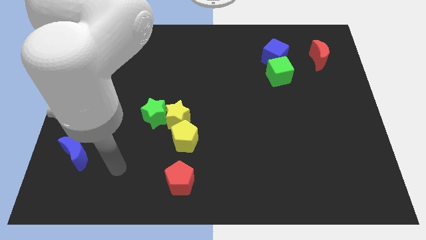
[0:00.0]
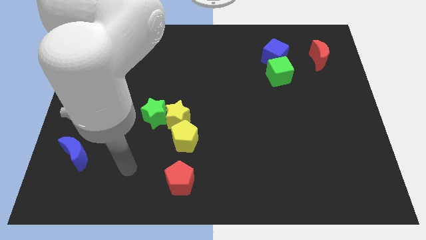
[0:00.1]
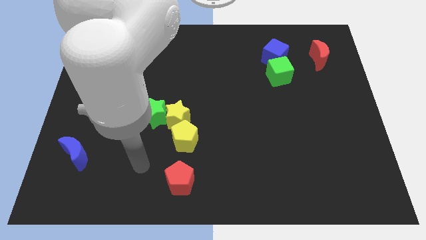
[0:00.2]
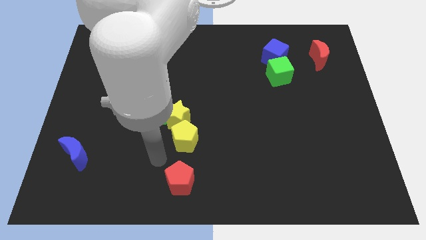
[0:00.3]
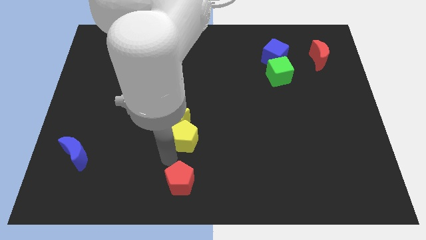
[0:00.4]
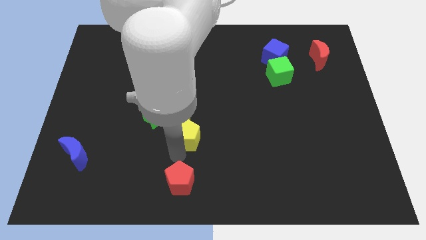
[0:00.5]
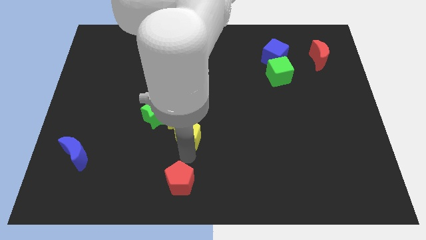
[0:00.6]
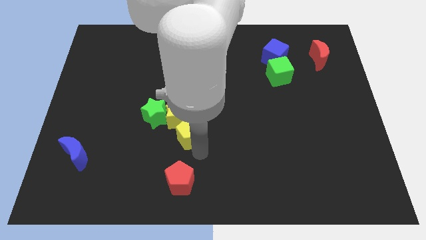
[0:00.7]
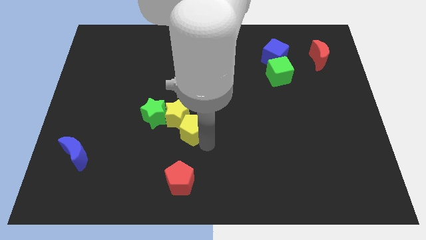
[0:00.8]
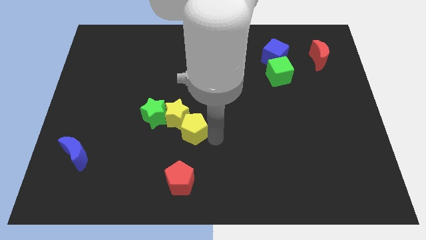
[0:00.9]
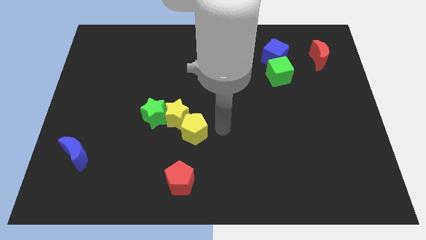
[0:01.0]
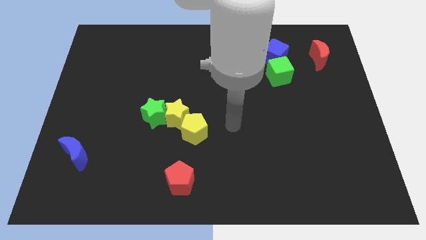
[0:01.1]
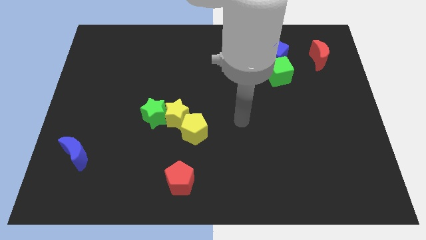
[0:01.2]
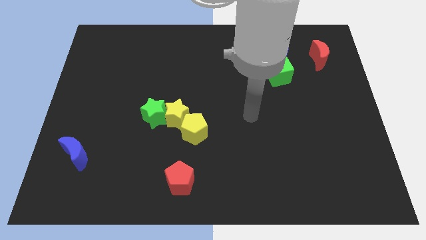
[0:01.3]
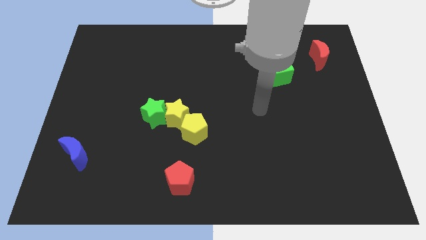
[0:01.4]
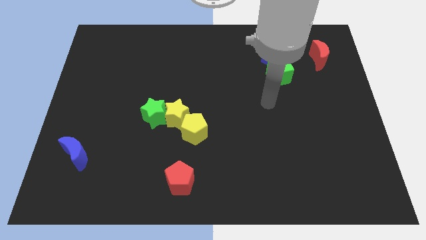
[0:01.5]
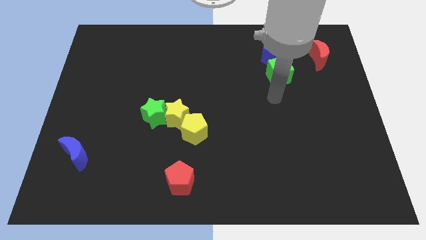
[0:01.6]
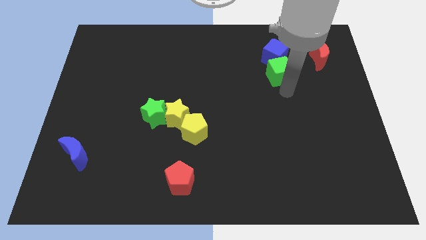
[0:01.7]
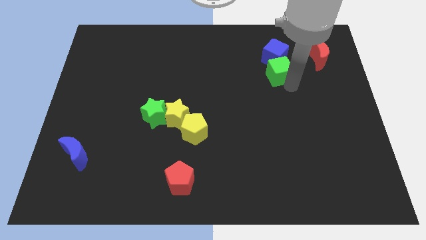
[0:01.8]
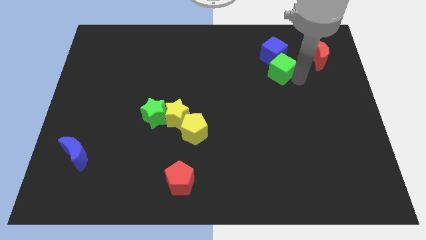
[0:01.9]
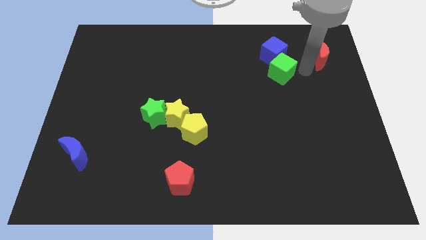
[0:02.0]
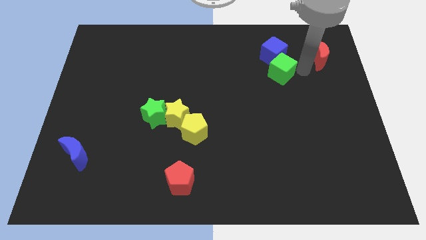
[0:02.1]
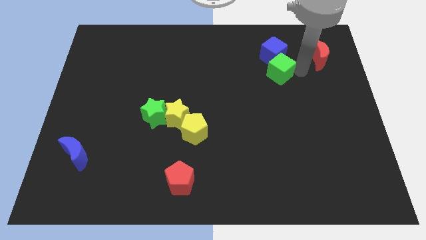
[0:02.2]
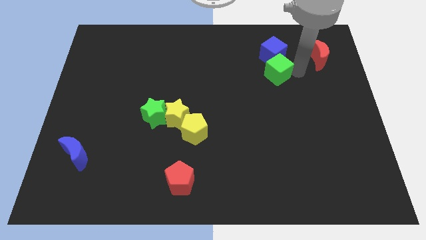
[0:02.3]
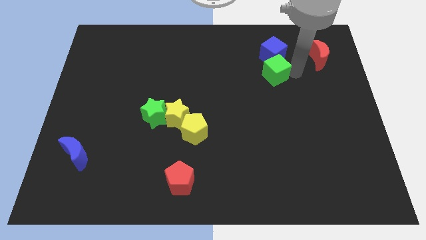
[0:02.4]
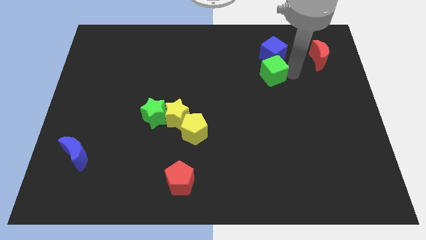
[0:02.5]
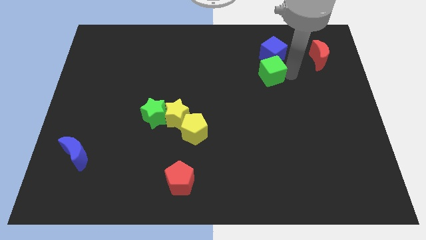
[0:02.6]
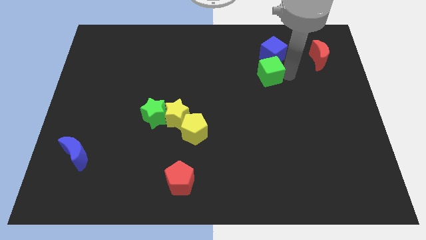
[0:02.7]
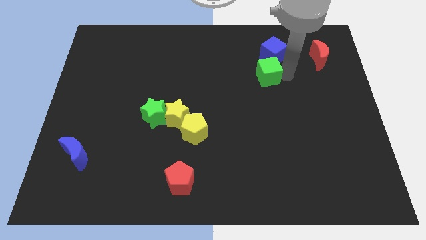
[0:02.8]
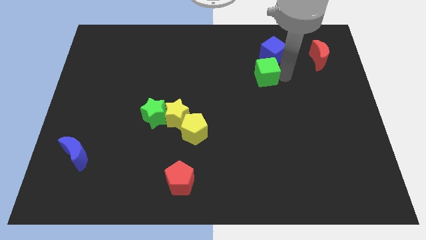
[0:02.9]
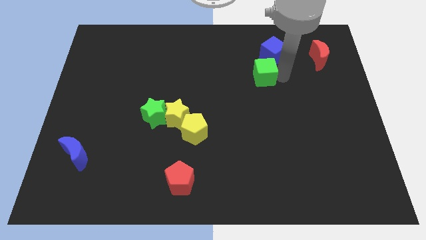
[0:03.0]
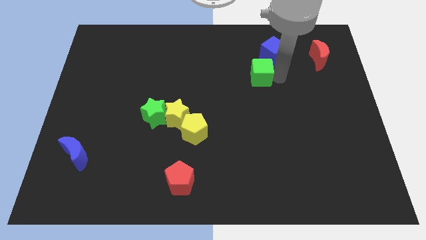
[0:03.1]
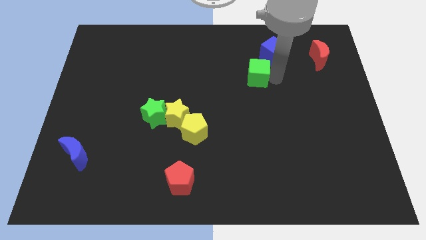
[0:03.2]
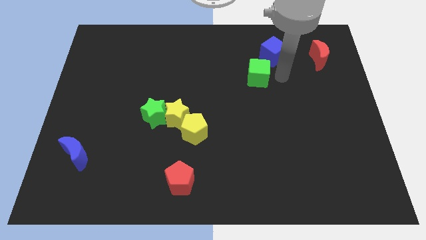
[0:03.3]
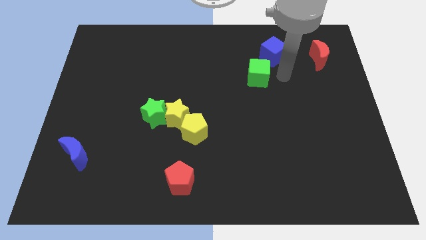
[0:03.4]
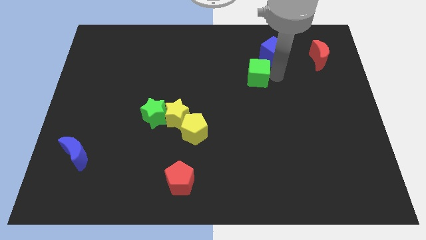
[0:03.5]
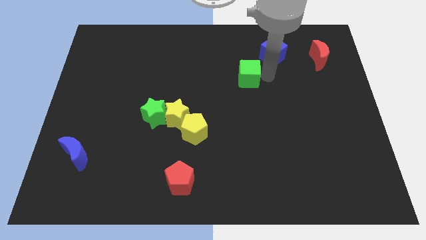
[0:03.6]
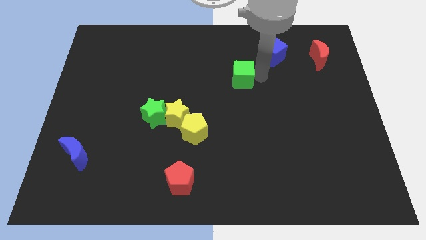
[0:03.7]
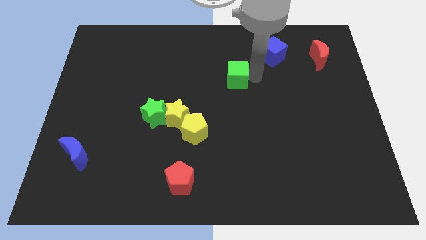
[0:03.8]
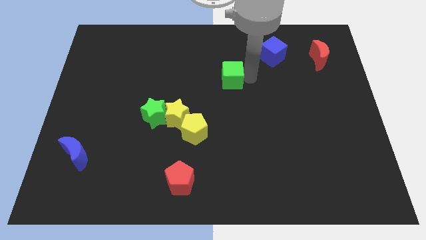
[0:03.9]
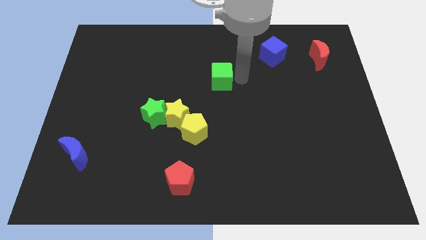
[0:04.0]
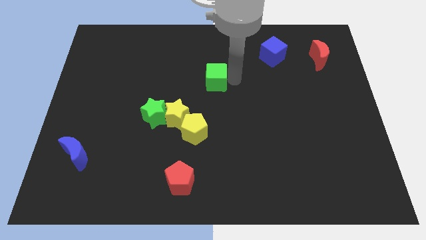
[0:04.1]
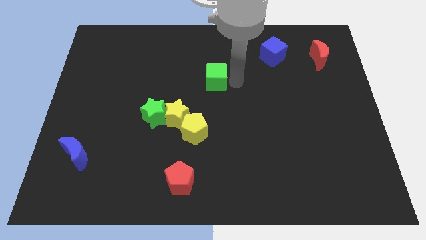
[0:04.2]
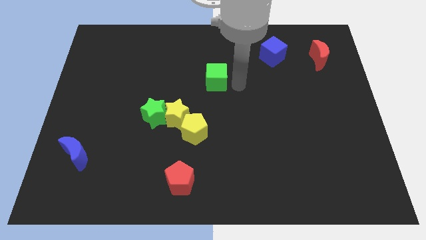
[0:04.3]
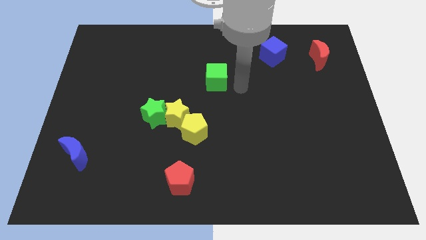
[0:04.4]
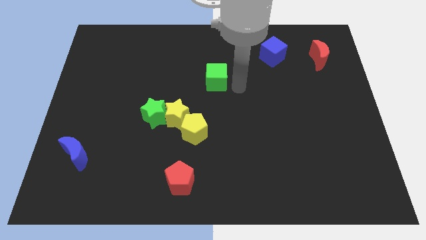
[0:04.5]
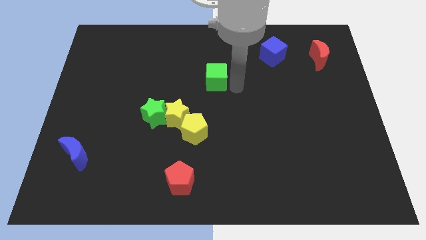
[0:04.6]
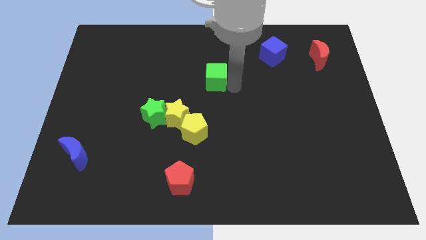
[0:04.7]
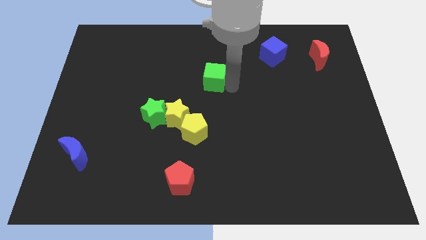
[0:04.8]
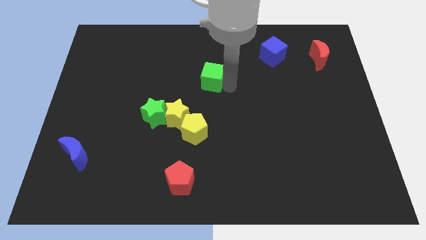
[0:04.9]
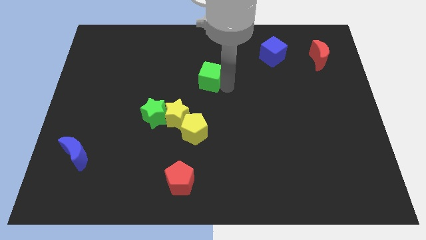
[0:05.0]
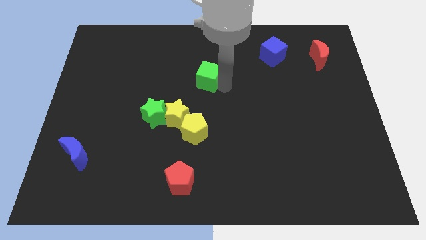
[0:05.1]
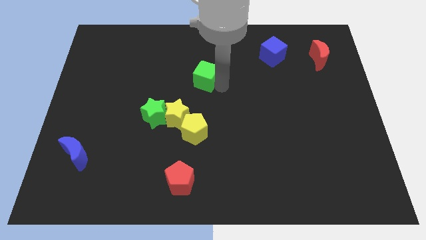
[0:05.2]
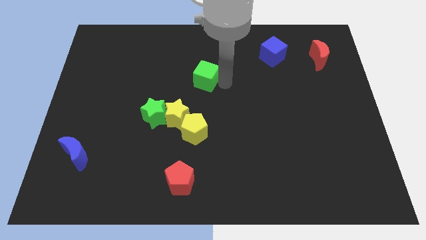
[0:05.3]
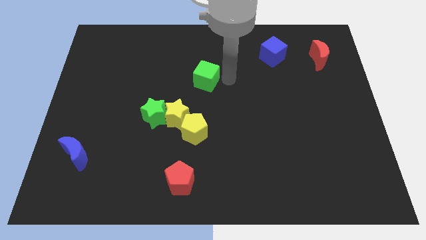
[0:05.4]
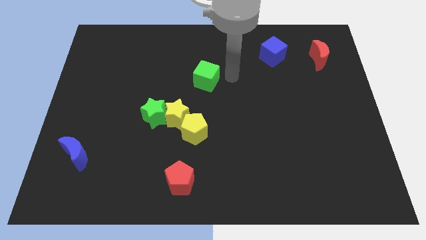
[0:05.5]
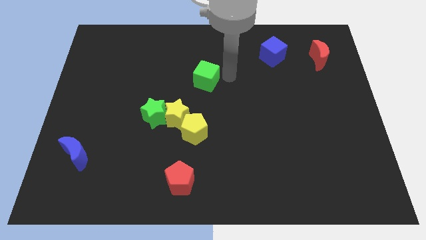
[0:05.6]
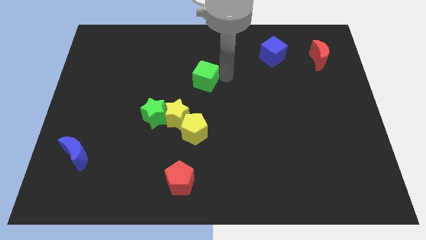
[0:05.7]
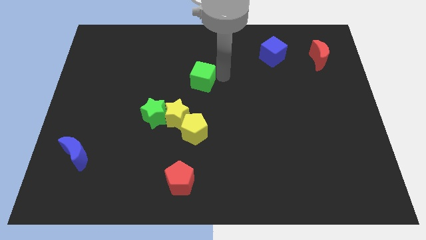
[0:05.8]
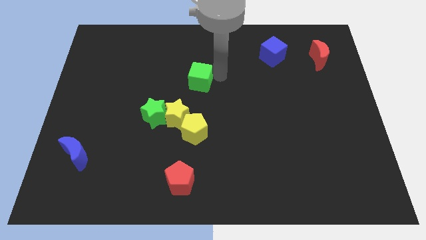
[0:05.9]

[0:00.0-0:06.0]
move the green cube to the left

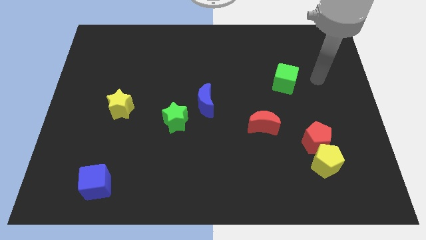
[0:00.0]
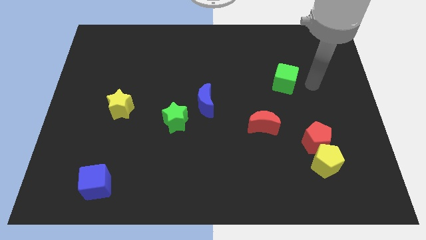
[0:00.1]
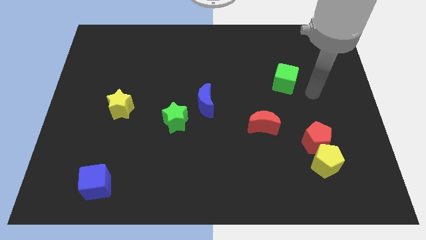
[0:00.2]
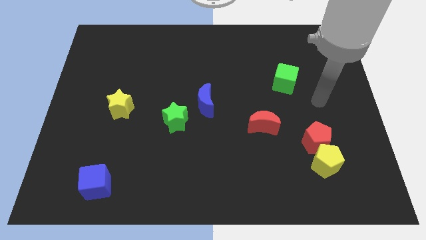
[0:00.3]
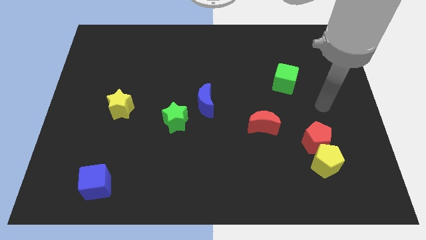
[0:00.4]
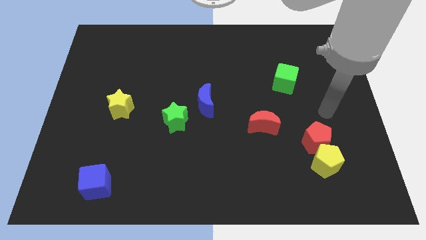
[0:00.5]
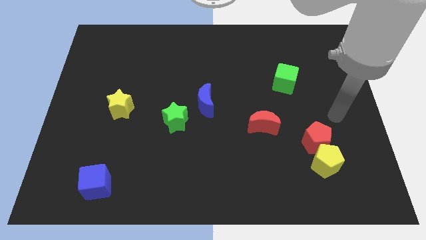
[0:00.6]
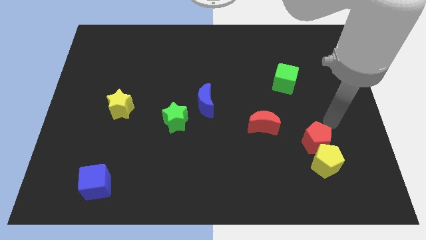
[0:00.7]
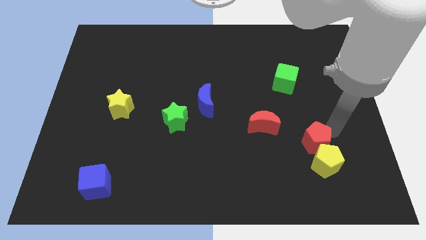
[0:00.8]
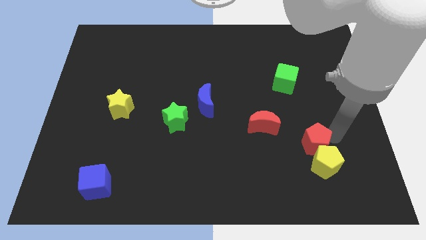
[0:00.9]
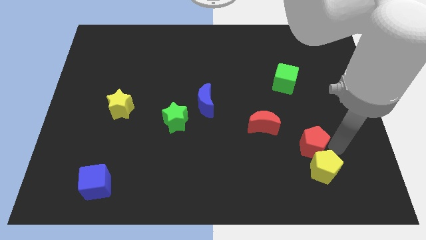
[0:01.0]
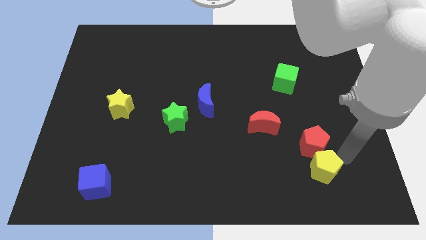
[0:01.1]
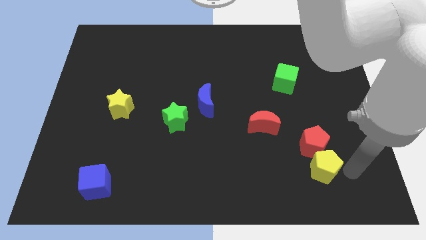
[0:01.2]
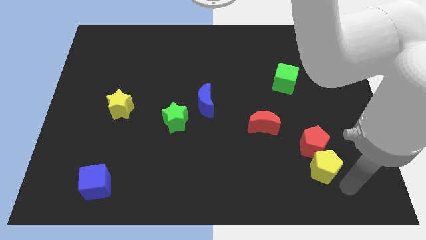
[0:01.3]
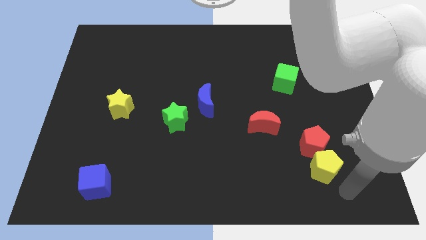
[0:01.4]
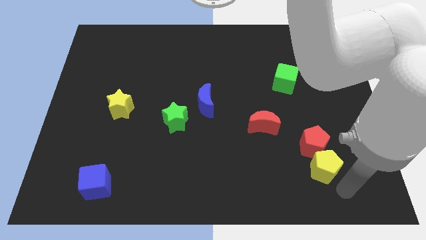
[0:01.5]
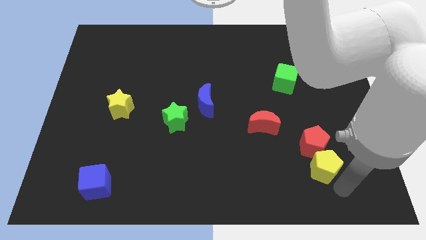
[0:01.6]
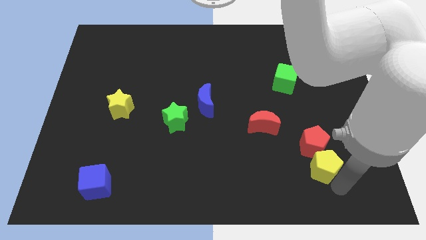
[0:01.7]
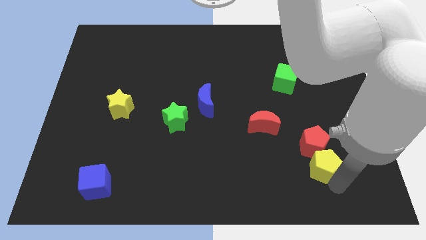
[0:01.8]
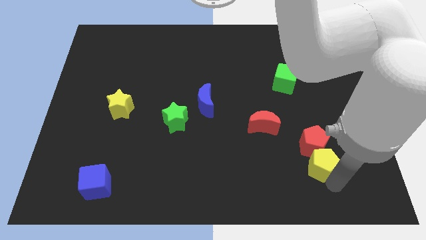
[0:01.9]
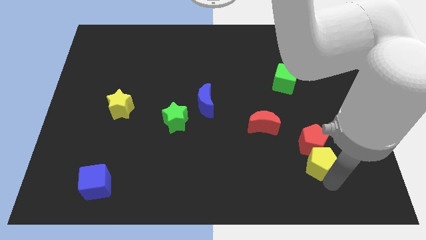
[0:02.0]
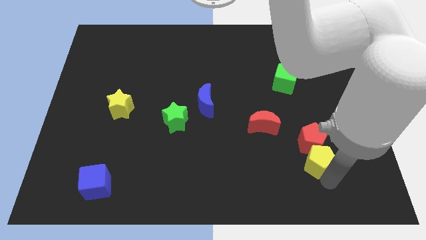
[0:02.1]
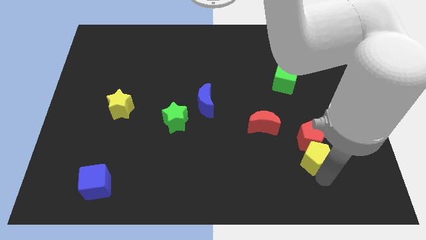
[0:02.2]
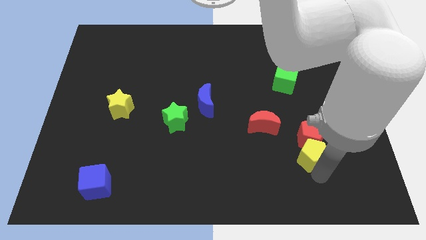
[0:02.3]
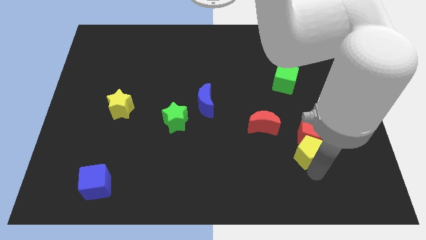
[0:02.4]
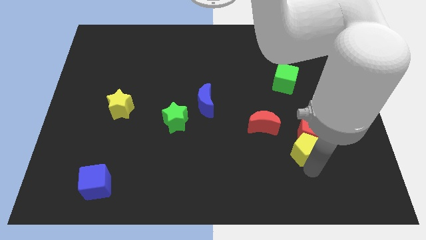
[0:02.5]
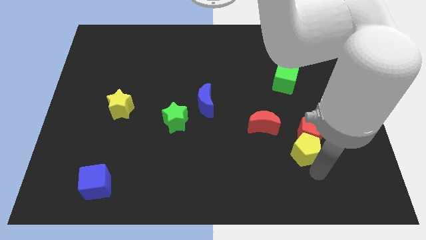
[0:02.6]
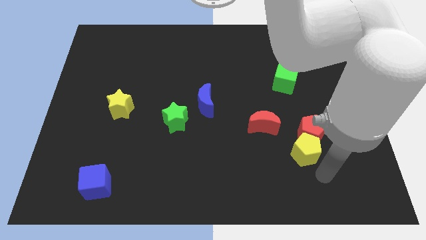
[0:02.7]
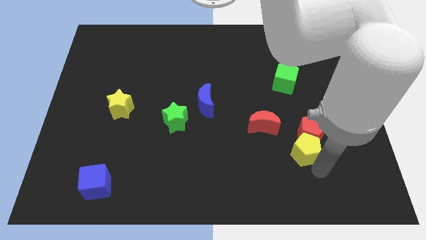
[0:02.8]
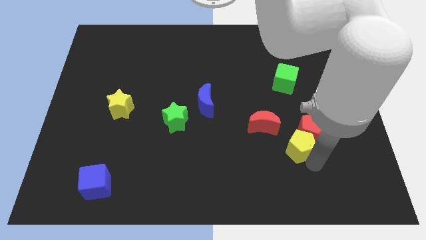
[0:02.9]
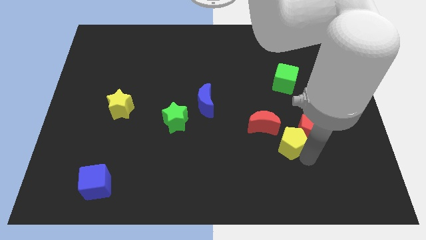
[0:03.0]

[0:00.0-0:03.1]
move the yellow pentagon diagonally up and left a little
